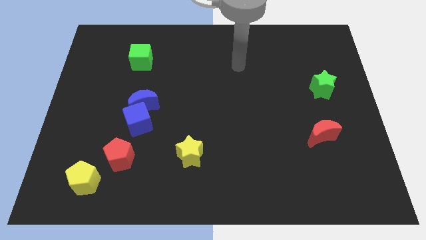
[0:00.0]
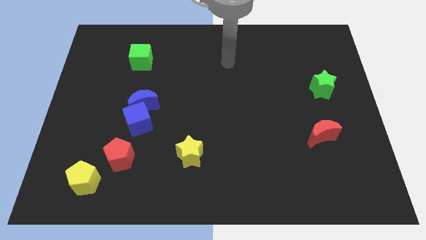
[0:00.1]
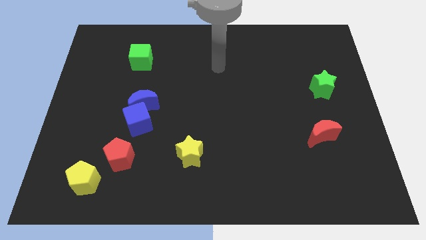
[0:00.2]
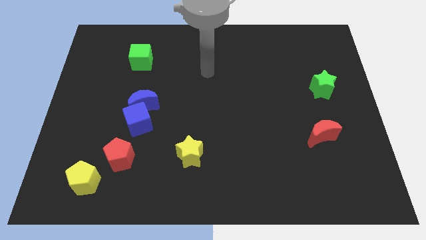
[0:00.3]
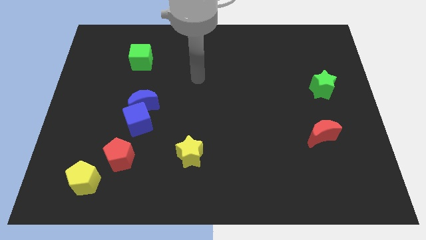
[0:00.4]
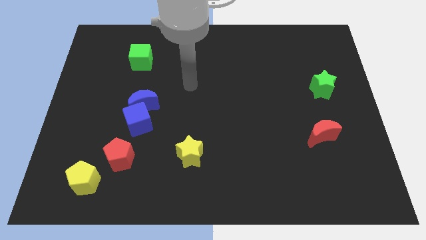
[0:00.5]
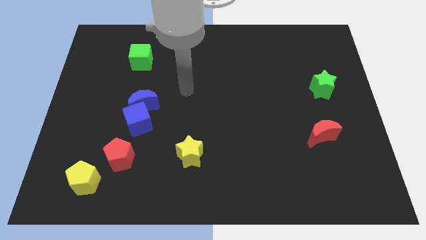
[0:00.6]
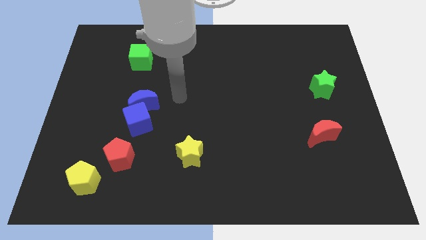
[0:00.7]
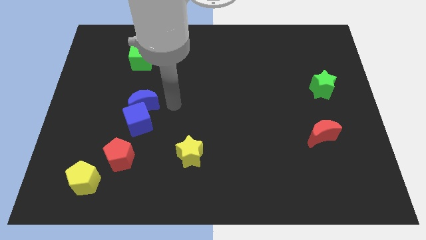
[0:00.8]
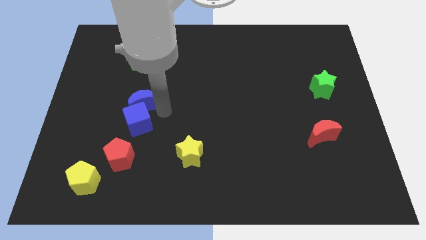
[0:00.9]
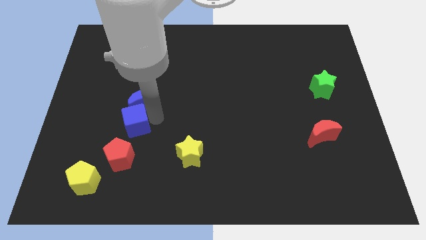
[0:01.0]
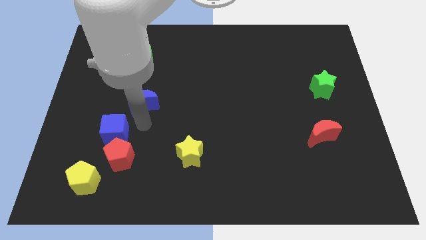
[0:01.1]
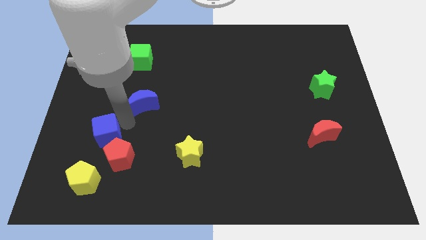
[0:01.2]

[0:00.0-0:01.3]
move the blue moon away from the blue cube

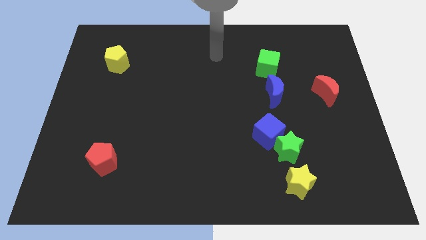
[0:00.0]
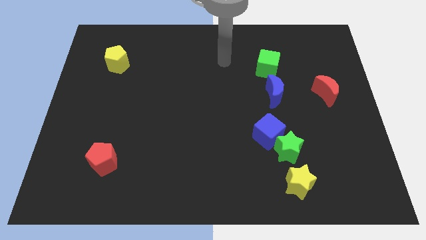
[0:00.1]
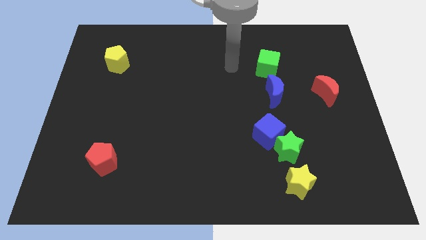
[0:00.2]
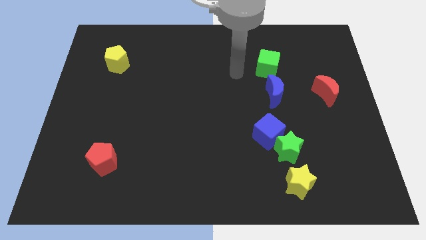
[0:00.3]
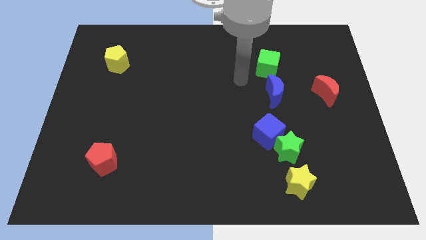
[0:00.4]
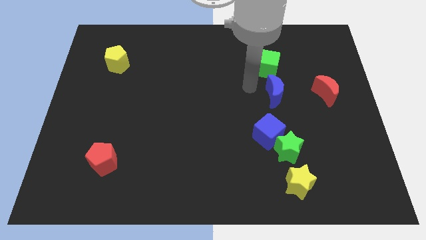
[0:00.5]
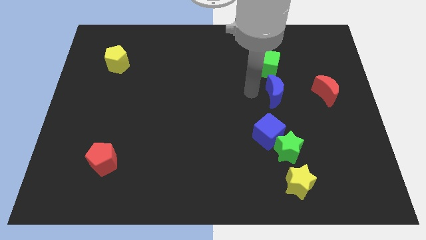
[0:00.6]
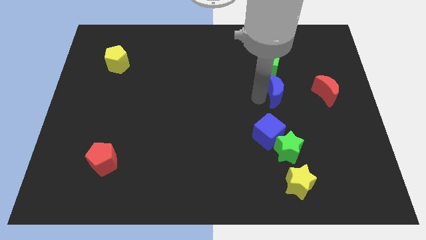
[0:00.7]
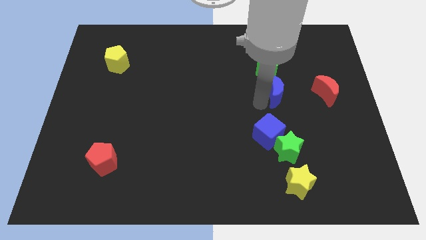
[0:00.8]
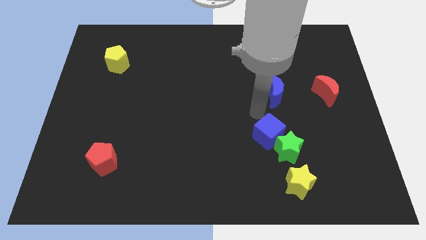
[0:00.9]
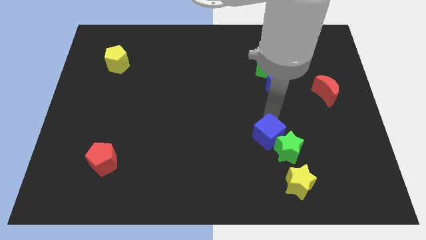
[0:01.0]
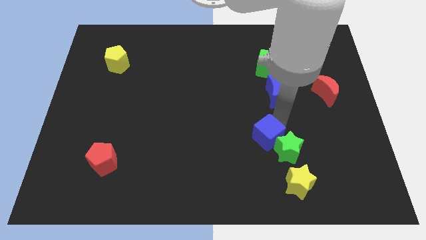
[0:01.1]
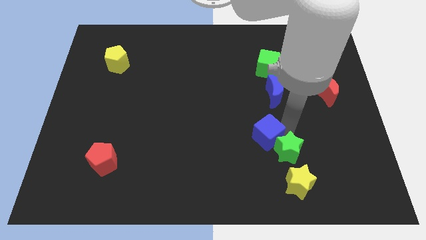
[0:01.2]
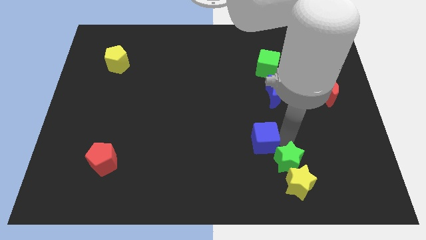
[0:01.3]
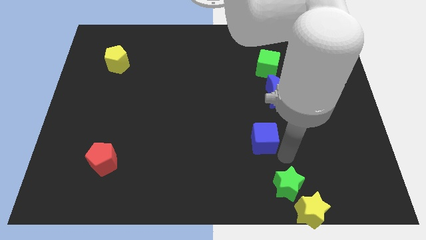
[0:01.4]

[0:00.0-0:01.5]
separate the blue cube from the green star

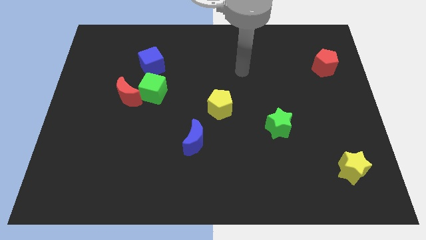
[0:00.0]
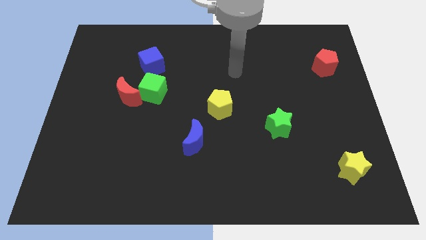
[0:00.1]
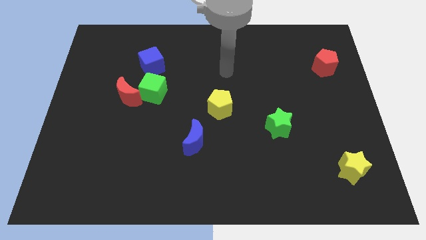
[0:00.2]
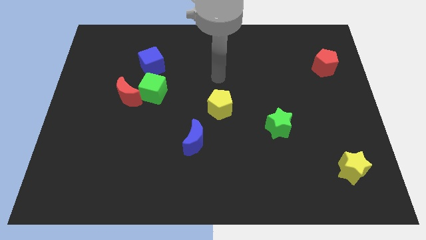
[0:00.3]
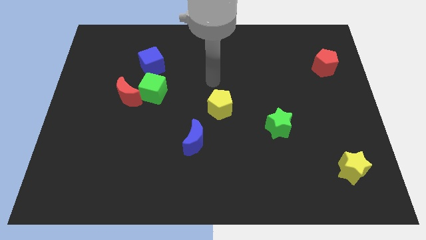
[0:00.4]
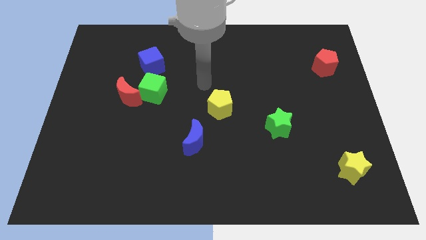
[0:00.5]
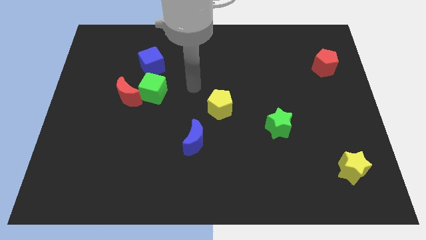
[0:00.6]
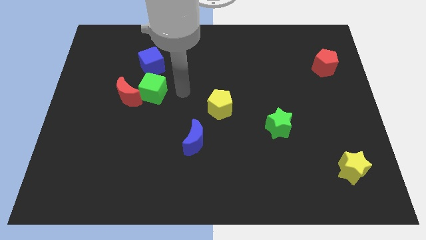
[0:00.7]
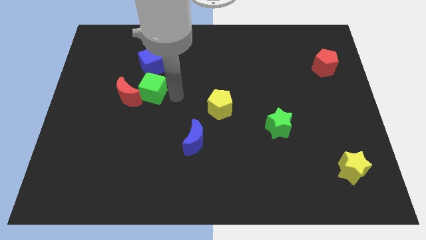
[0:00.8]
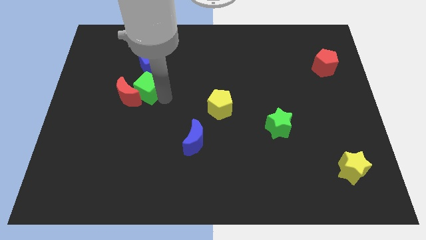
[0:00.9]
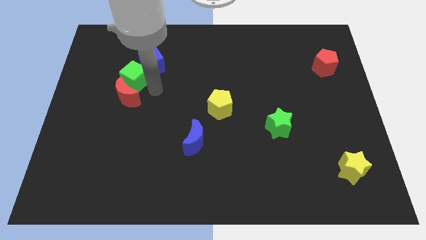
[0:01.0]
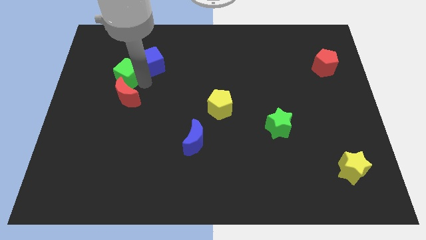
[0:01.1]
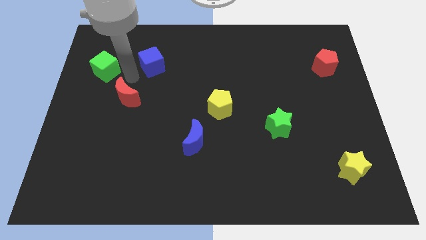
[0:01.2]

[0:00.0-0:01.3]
separate the red moon from the green cube

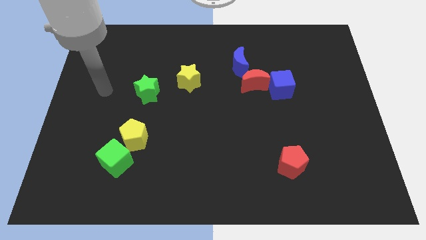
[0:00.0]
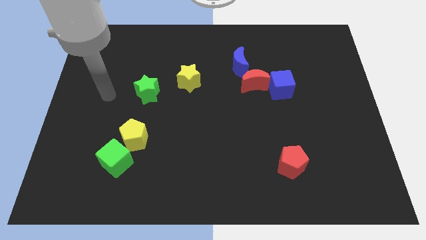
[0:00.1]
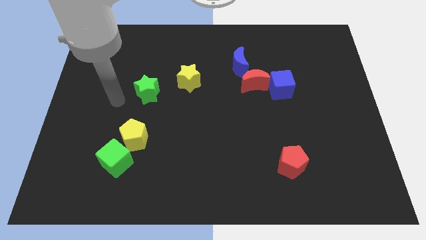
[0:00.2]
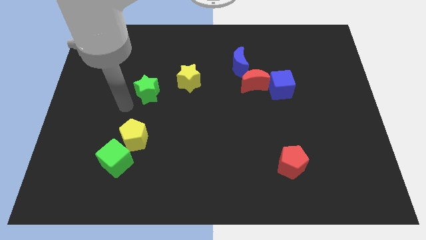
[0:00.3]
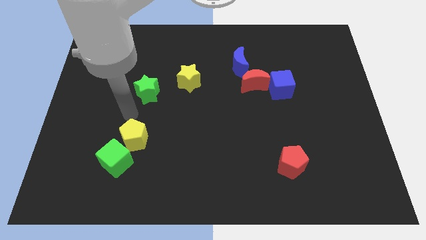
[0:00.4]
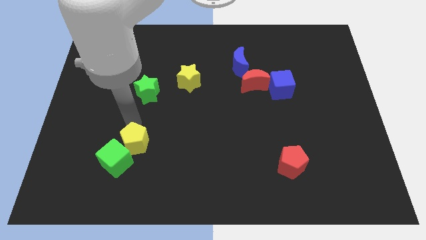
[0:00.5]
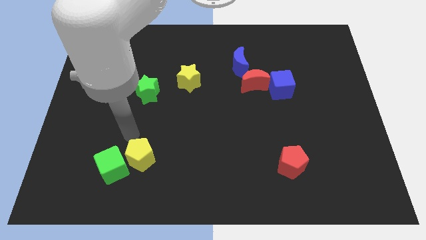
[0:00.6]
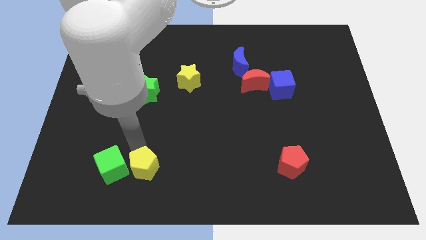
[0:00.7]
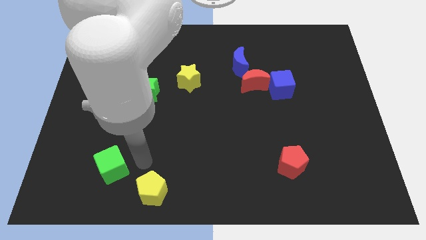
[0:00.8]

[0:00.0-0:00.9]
move the green cube away from the yellow pentagon

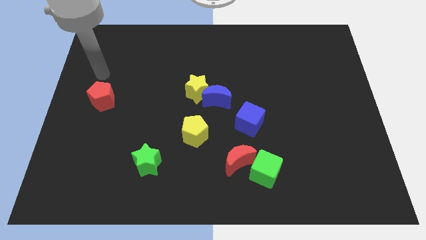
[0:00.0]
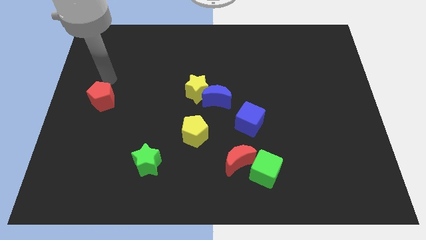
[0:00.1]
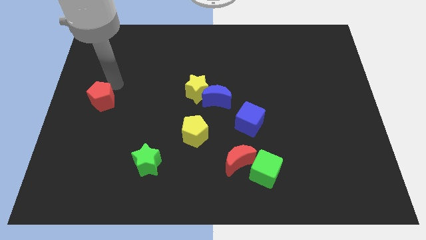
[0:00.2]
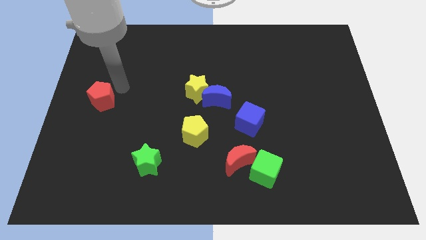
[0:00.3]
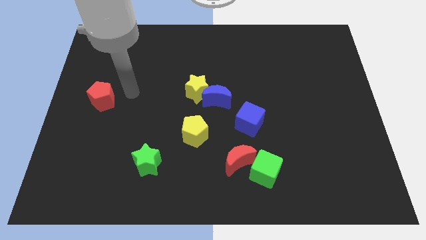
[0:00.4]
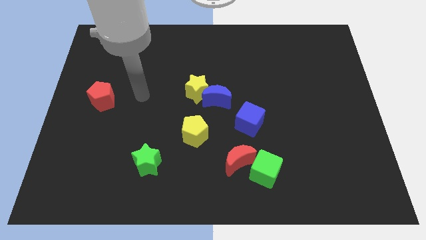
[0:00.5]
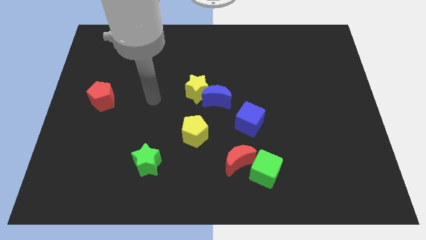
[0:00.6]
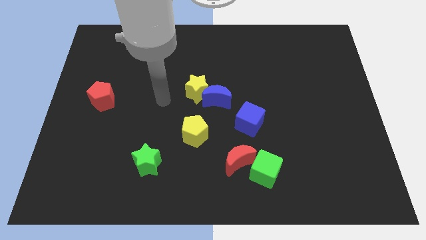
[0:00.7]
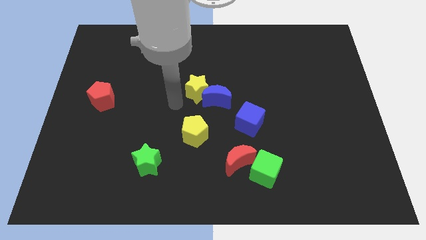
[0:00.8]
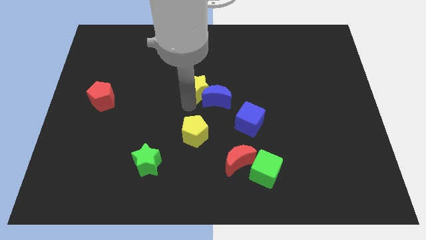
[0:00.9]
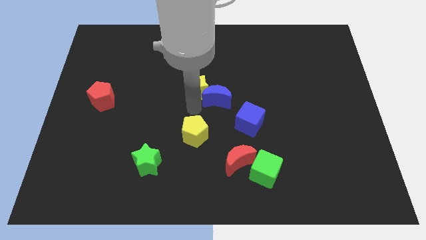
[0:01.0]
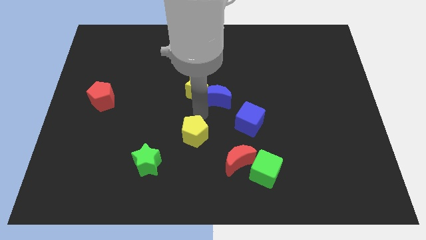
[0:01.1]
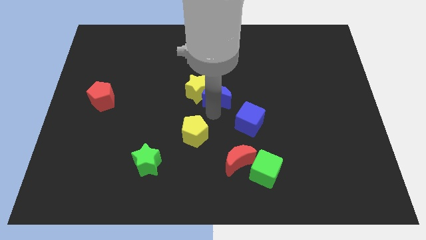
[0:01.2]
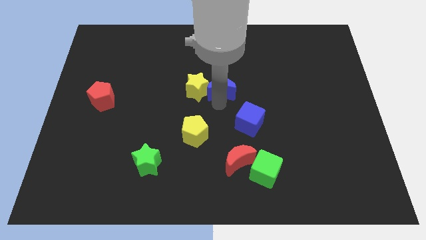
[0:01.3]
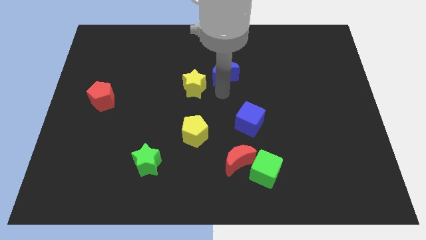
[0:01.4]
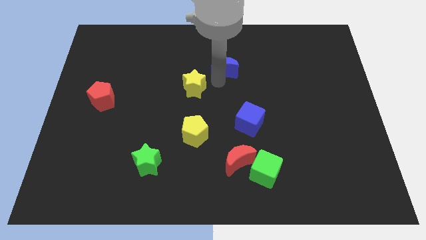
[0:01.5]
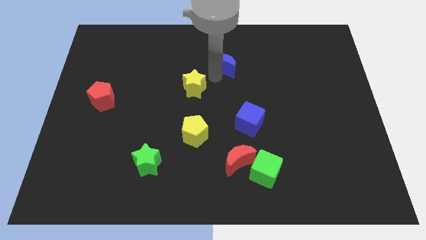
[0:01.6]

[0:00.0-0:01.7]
separate the yellow star from the blue moon

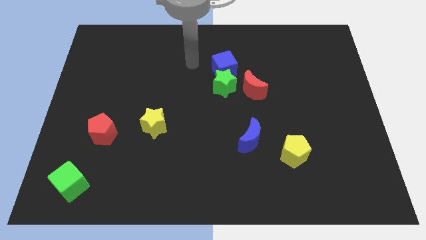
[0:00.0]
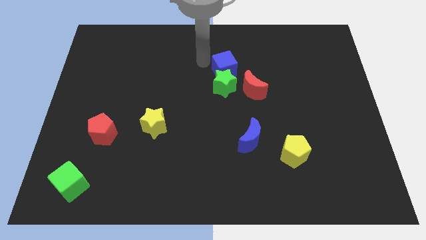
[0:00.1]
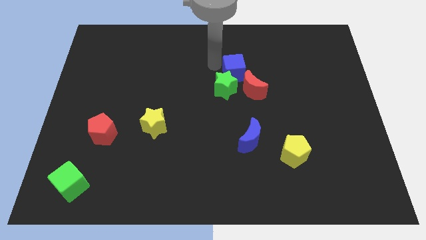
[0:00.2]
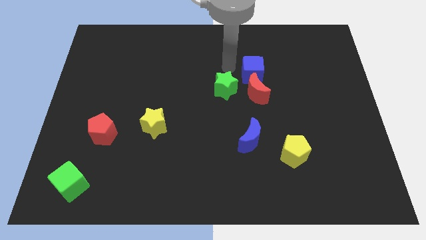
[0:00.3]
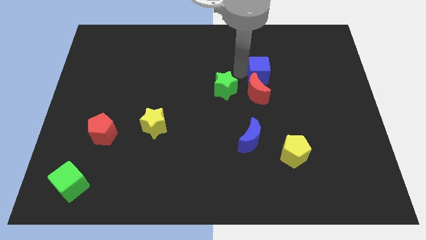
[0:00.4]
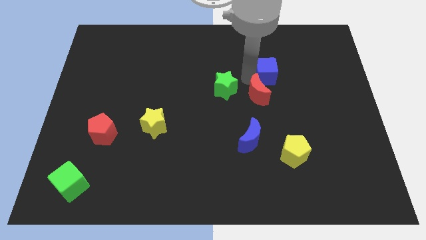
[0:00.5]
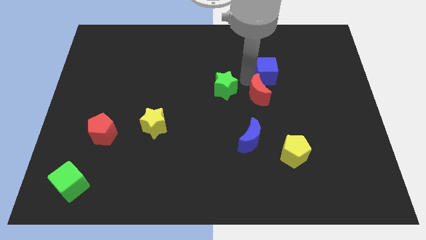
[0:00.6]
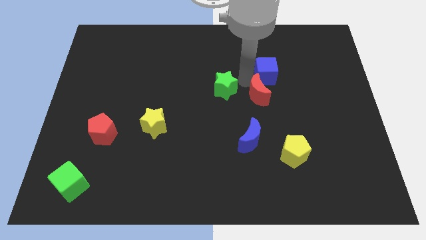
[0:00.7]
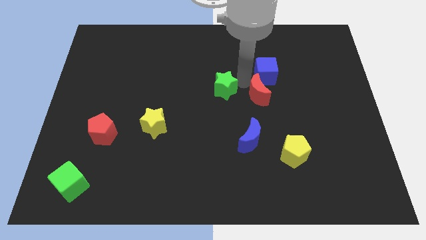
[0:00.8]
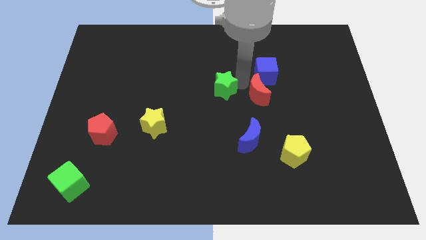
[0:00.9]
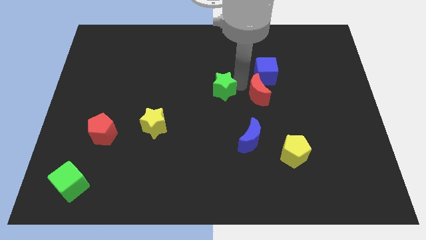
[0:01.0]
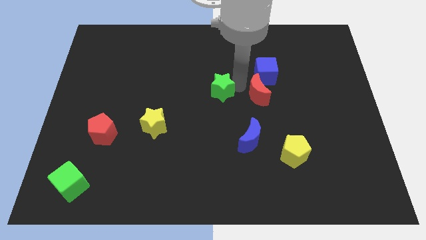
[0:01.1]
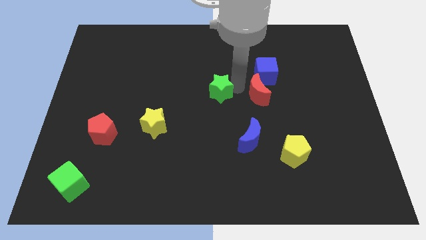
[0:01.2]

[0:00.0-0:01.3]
move the green star away from the blue cube and red moon

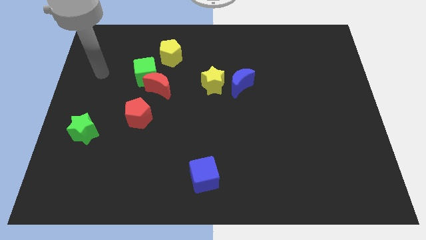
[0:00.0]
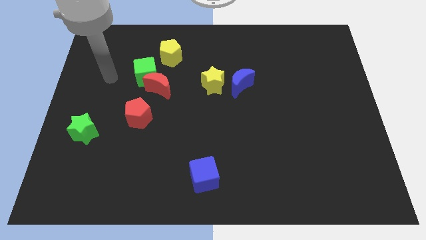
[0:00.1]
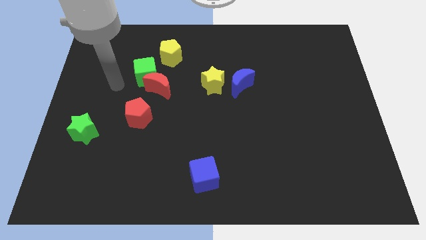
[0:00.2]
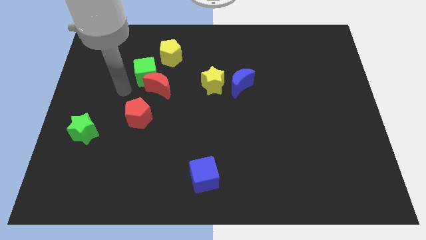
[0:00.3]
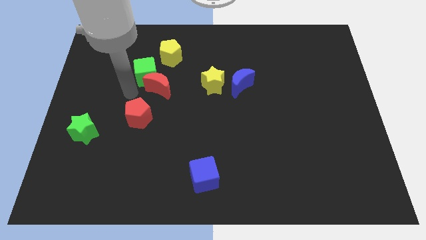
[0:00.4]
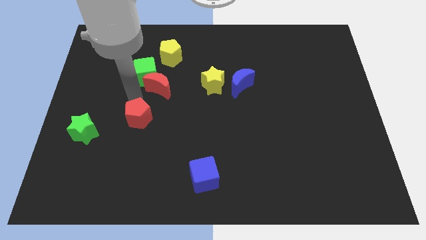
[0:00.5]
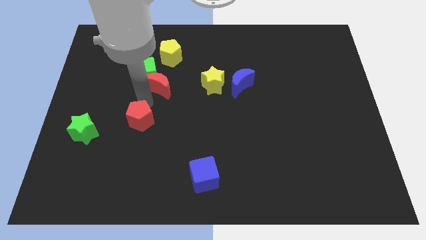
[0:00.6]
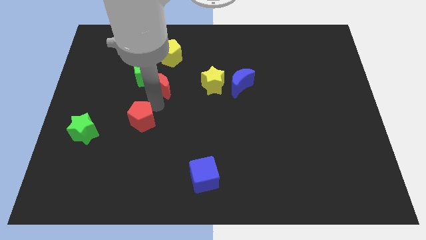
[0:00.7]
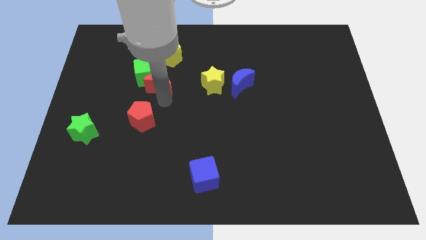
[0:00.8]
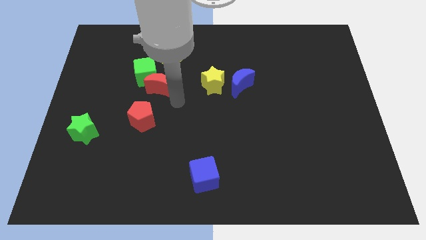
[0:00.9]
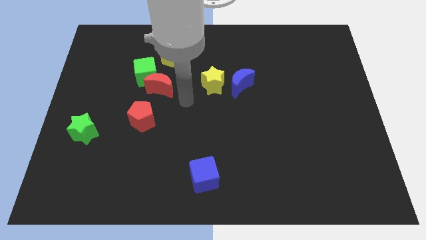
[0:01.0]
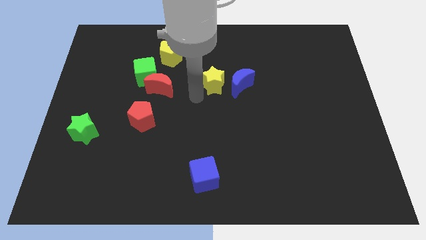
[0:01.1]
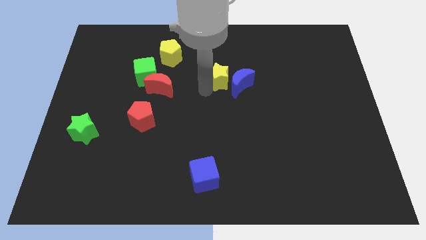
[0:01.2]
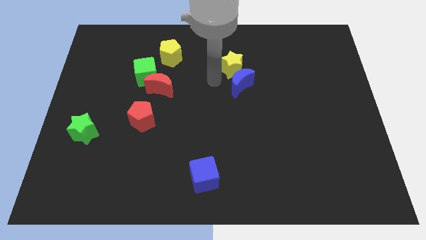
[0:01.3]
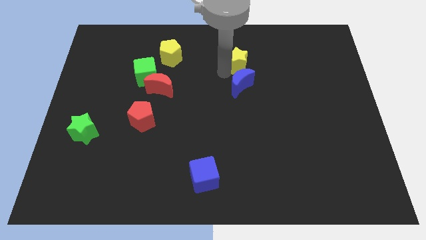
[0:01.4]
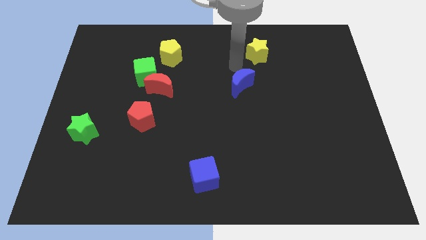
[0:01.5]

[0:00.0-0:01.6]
move the blue moon away from the yellow star
